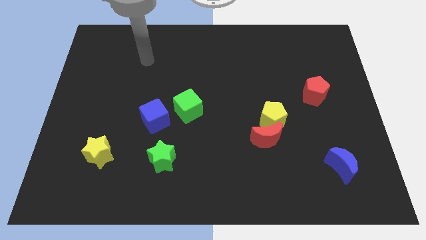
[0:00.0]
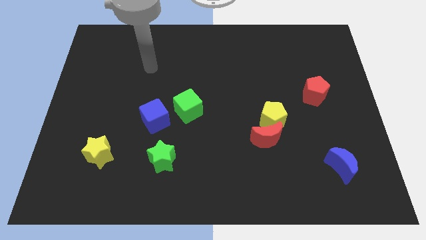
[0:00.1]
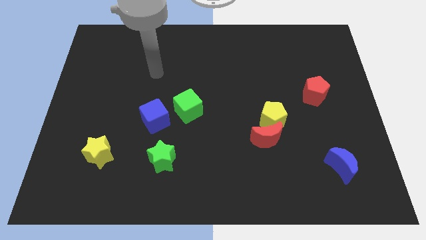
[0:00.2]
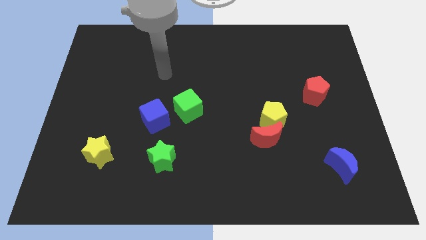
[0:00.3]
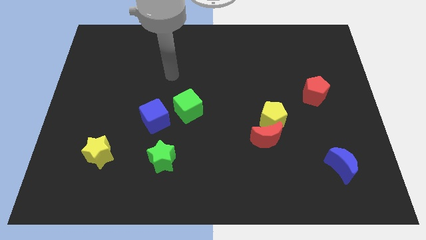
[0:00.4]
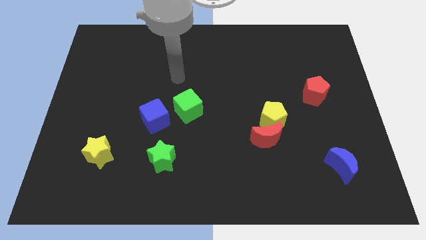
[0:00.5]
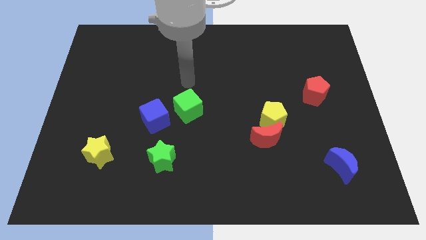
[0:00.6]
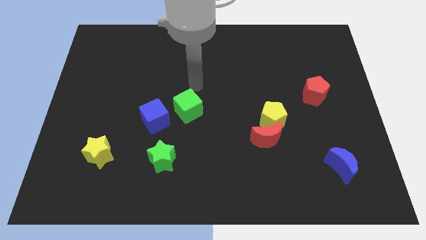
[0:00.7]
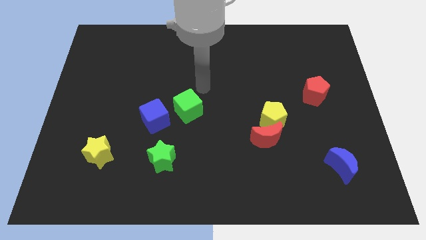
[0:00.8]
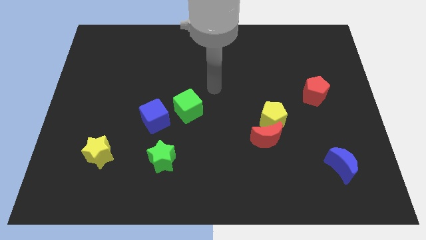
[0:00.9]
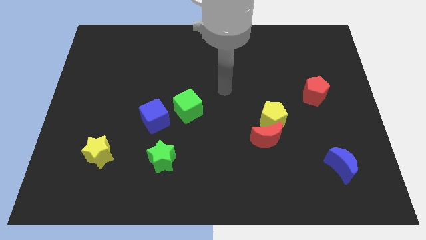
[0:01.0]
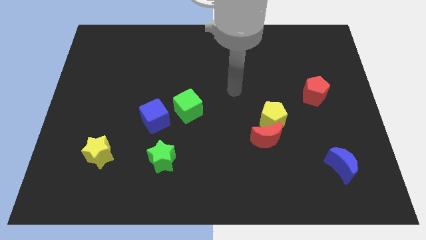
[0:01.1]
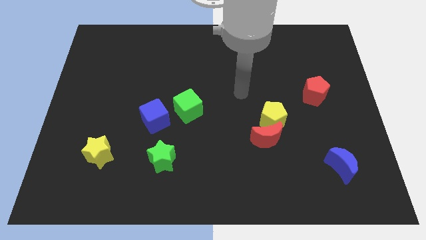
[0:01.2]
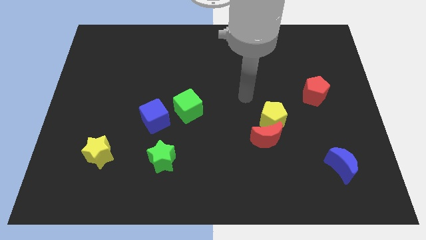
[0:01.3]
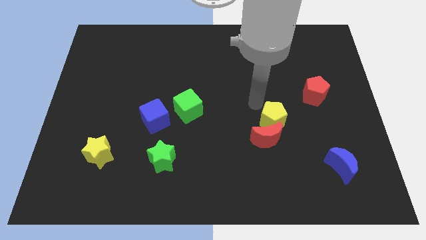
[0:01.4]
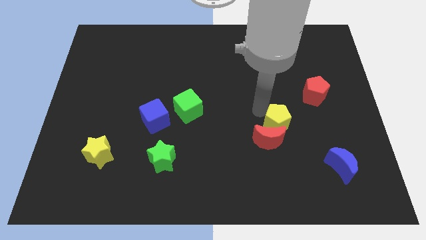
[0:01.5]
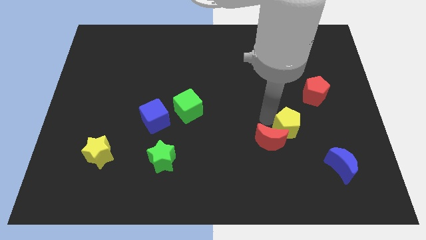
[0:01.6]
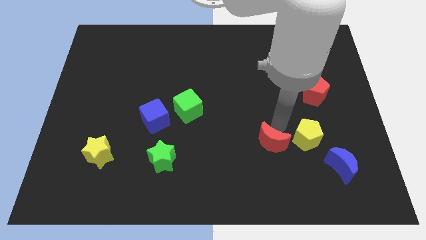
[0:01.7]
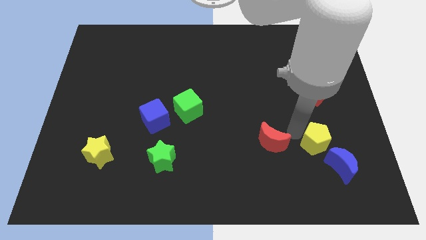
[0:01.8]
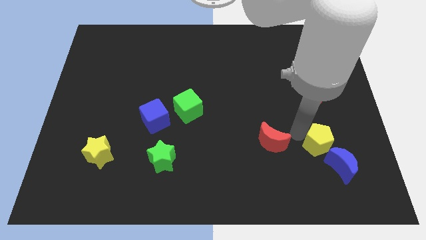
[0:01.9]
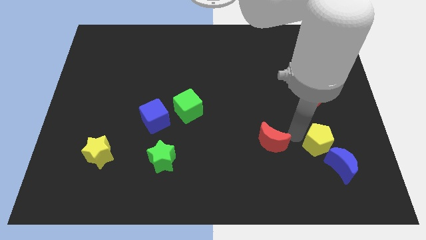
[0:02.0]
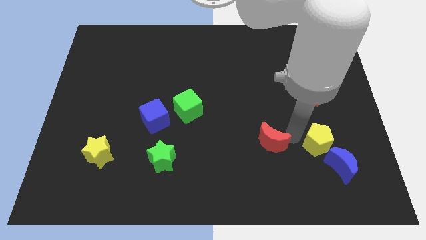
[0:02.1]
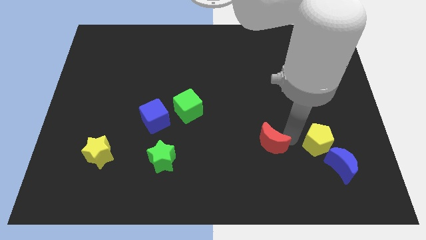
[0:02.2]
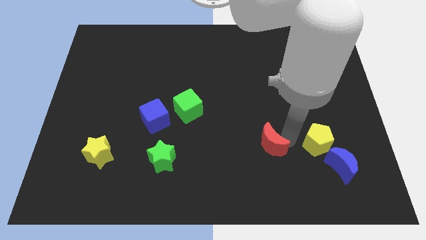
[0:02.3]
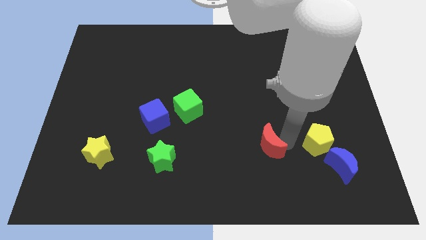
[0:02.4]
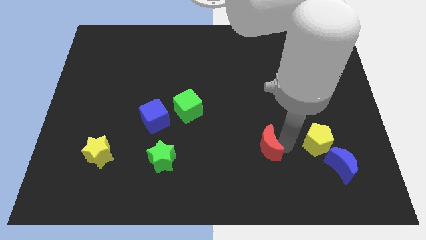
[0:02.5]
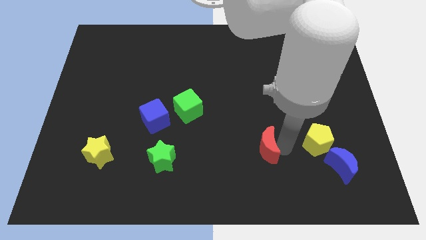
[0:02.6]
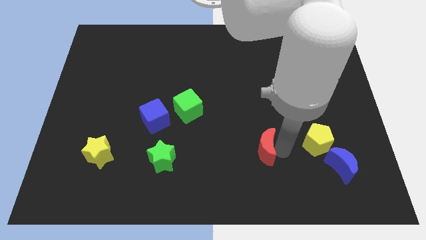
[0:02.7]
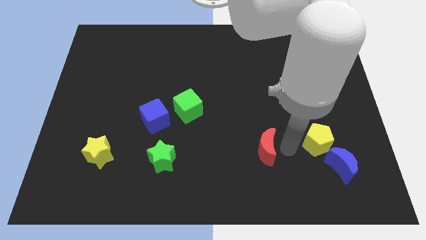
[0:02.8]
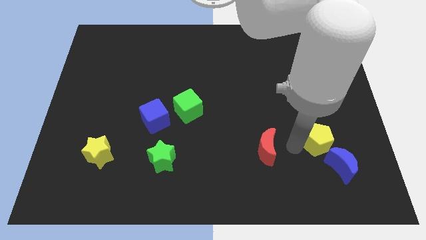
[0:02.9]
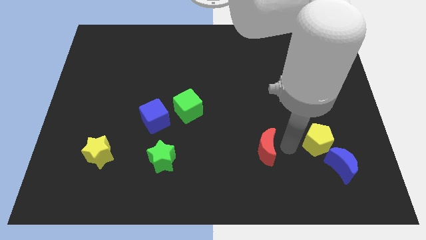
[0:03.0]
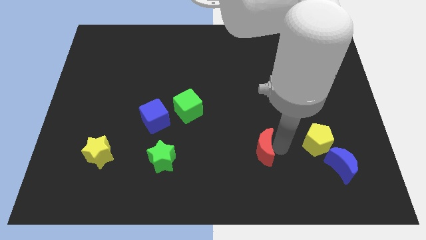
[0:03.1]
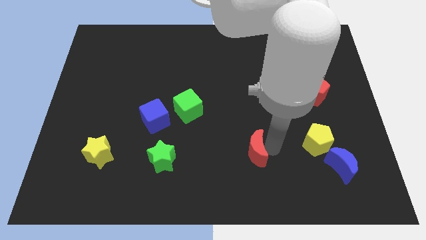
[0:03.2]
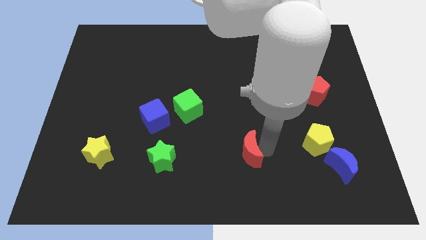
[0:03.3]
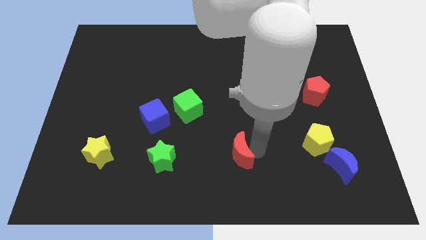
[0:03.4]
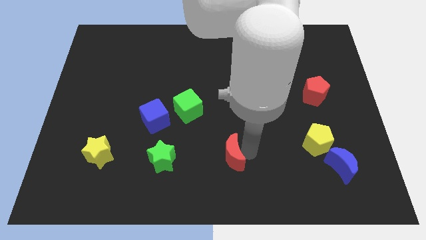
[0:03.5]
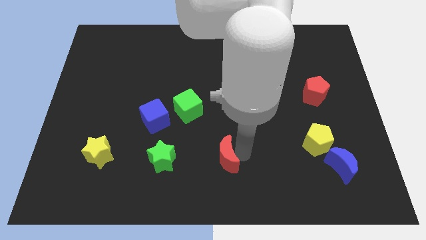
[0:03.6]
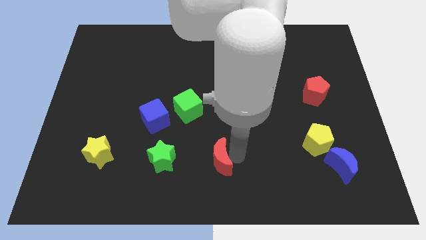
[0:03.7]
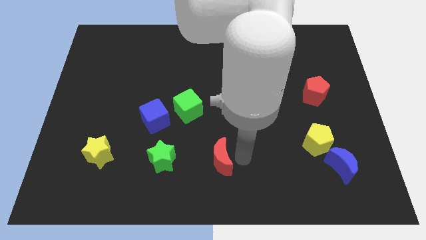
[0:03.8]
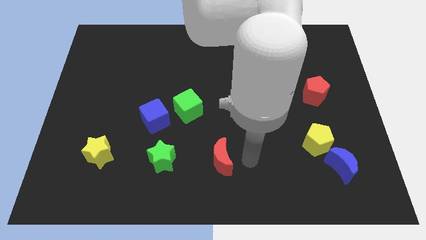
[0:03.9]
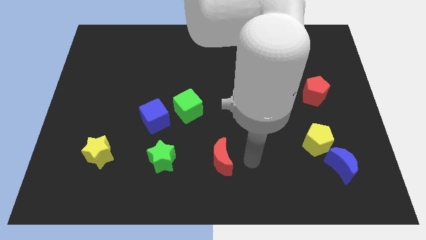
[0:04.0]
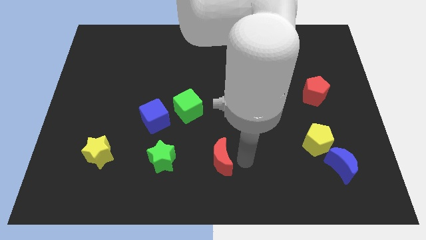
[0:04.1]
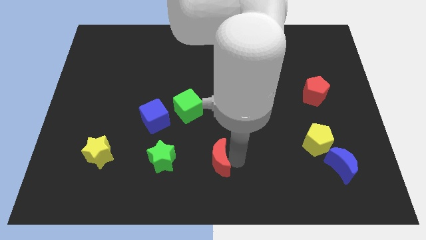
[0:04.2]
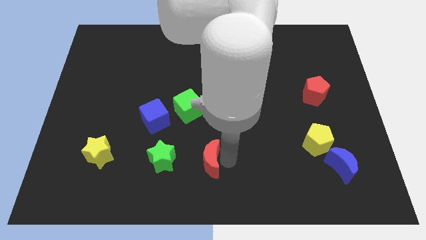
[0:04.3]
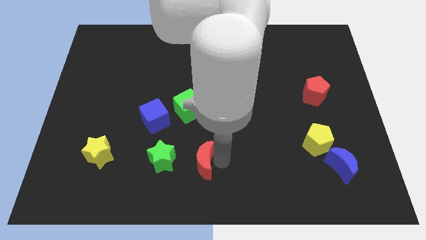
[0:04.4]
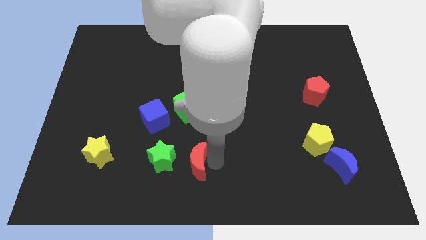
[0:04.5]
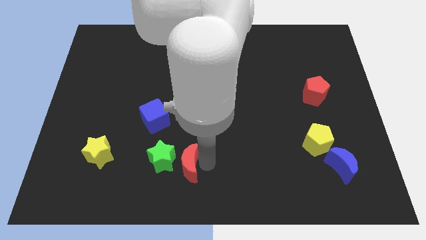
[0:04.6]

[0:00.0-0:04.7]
push the red moon next to the green star

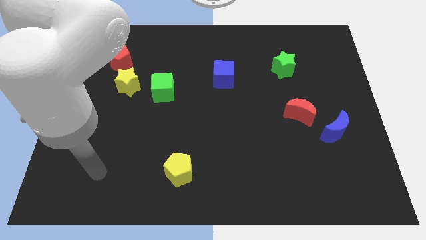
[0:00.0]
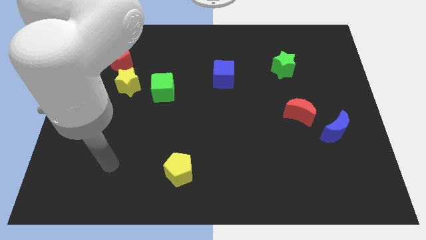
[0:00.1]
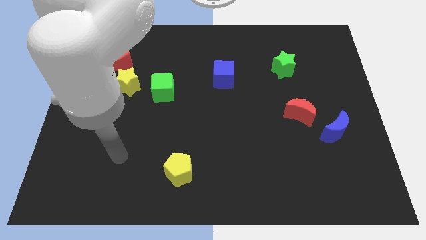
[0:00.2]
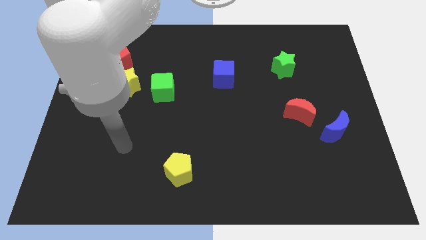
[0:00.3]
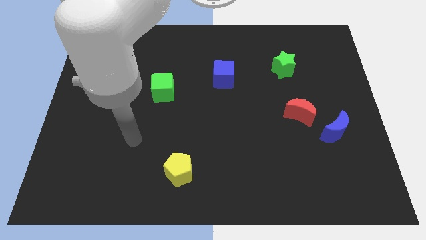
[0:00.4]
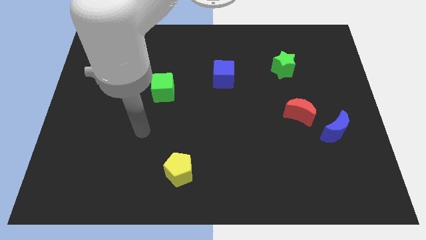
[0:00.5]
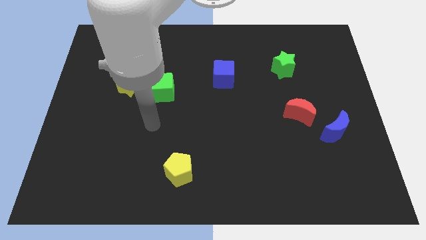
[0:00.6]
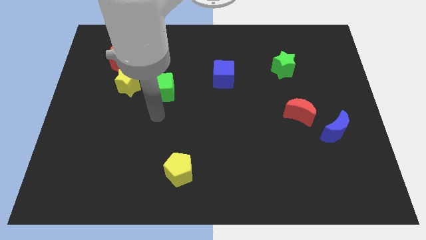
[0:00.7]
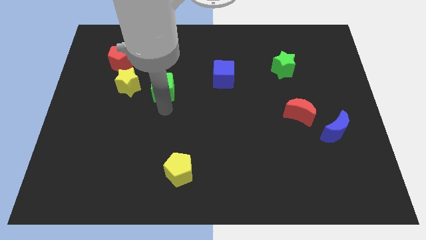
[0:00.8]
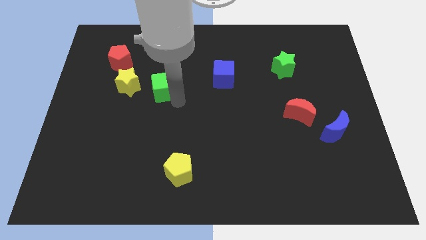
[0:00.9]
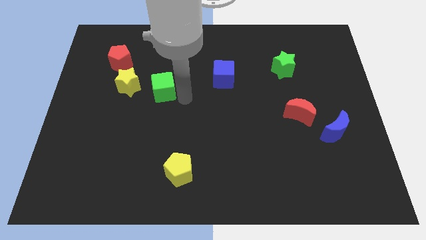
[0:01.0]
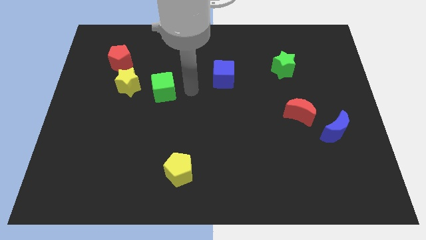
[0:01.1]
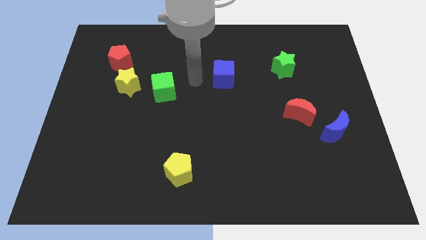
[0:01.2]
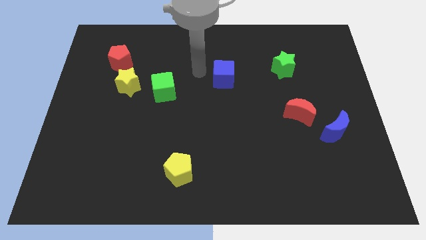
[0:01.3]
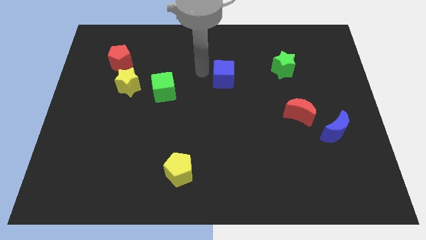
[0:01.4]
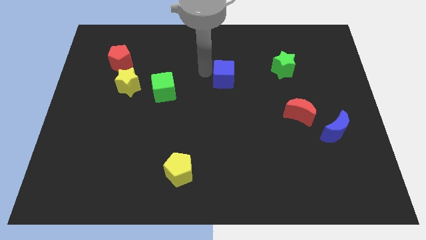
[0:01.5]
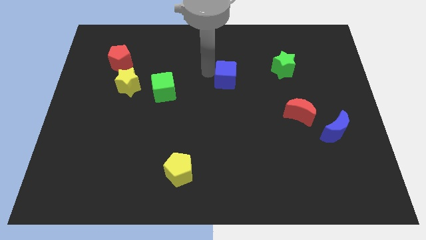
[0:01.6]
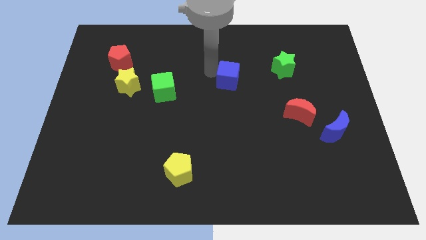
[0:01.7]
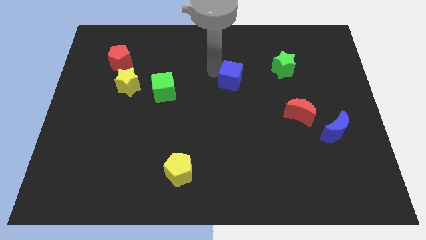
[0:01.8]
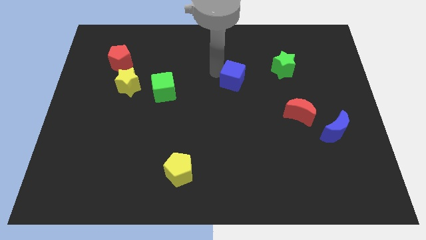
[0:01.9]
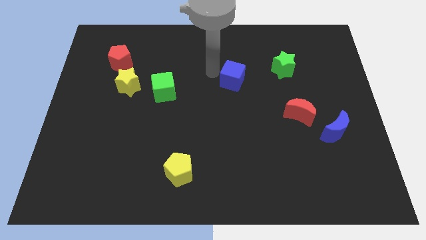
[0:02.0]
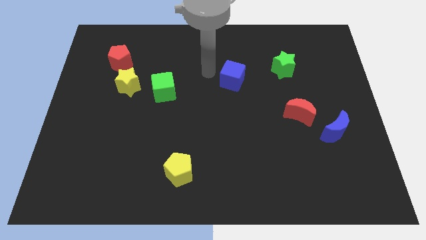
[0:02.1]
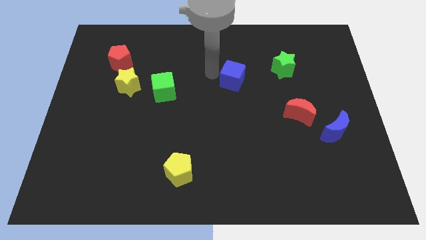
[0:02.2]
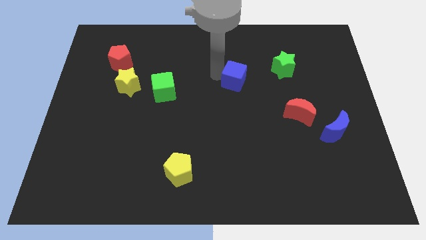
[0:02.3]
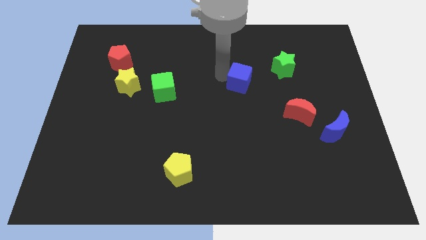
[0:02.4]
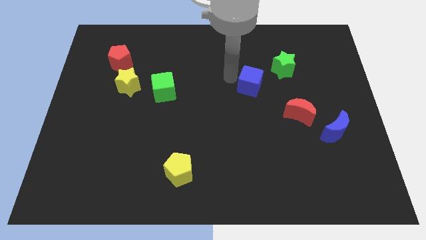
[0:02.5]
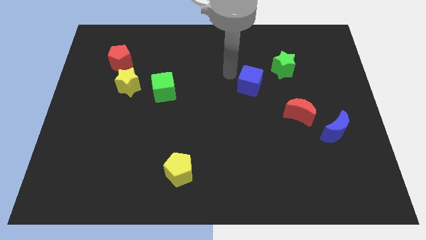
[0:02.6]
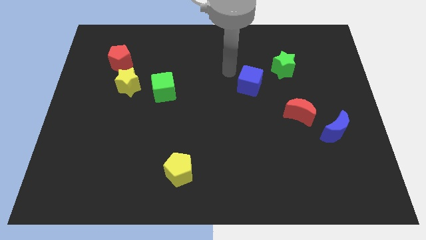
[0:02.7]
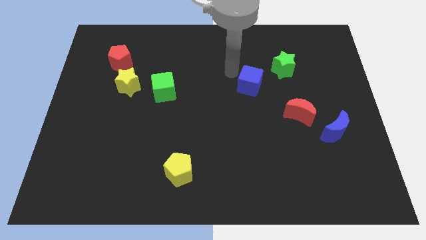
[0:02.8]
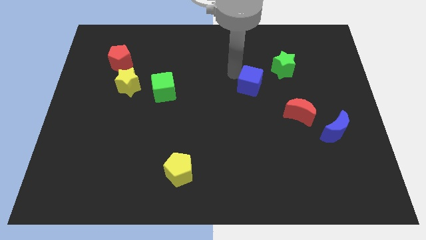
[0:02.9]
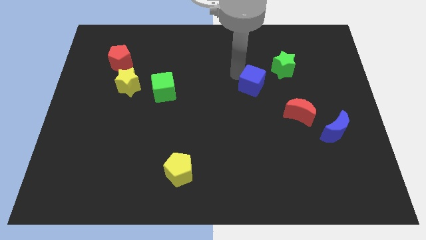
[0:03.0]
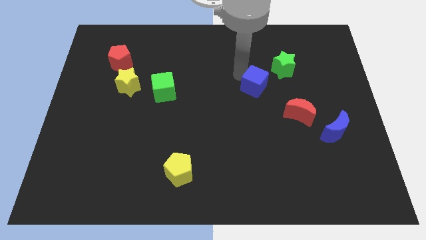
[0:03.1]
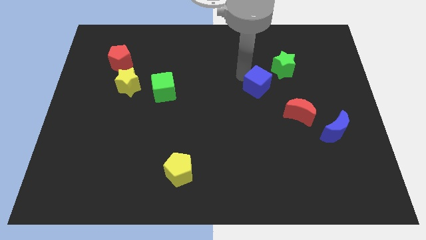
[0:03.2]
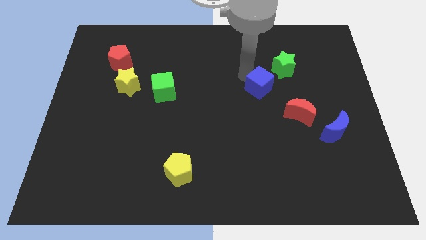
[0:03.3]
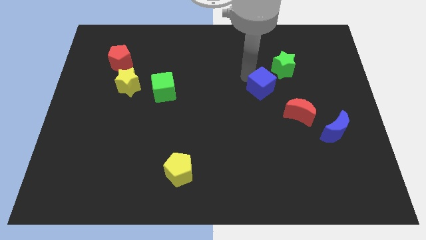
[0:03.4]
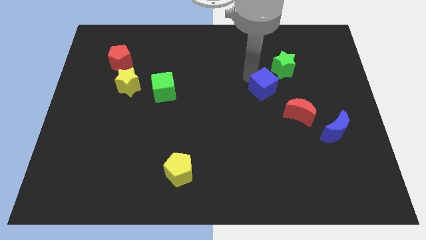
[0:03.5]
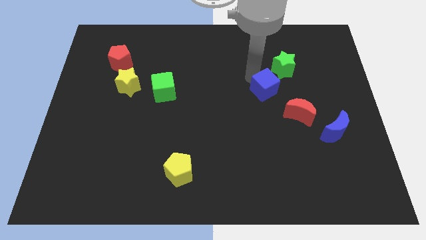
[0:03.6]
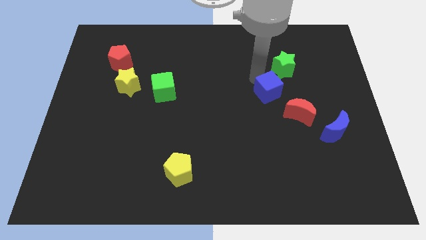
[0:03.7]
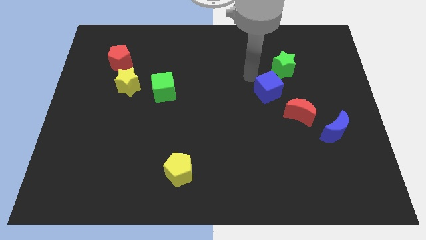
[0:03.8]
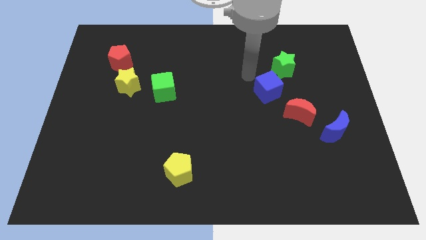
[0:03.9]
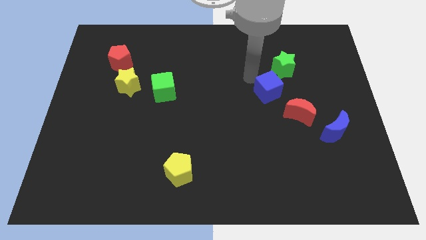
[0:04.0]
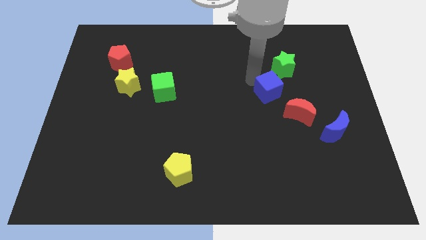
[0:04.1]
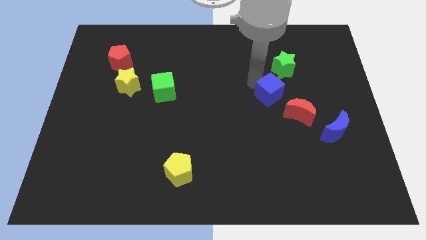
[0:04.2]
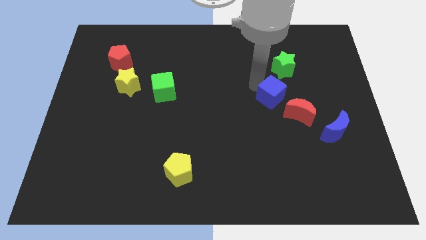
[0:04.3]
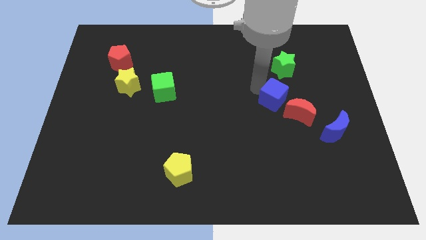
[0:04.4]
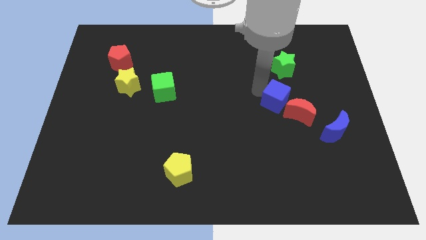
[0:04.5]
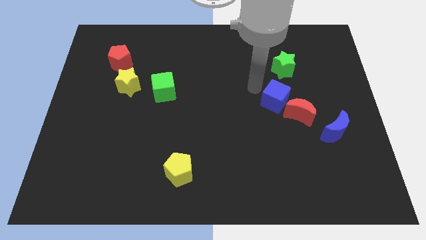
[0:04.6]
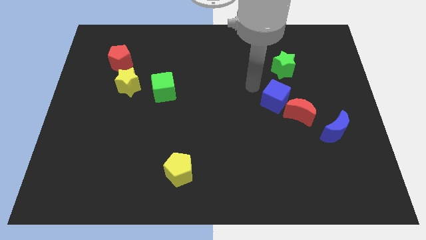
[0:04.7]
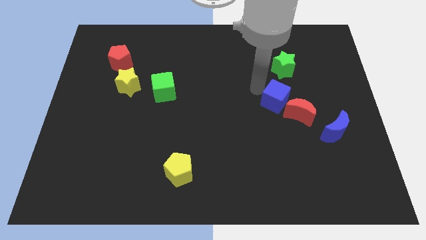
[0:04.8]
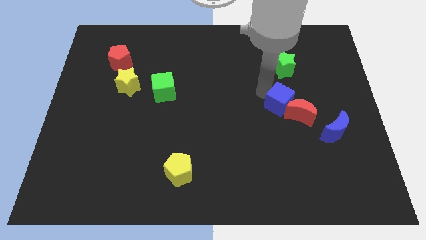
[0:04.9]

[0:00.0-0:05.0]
slide the blue cube towards the red moon
